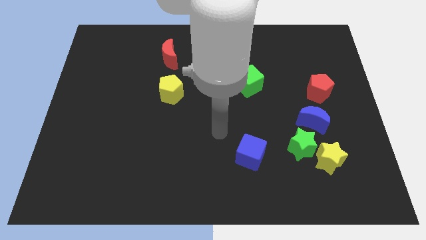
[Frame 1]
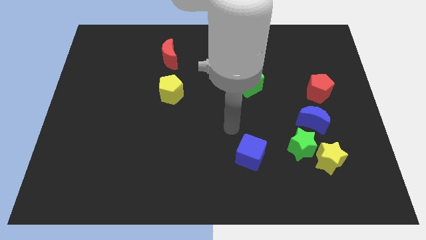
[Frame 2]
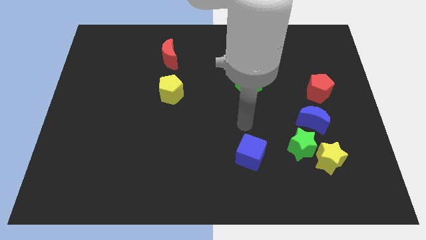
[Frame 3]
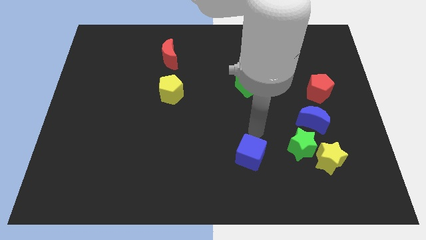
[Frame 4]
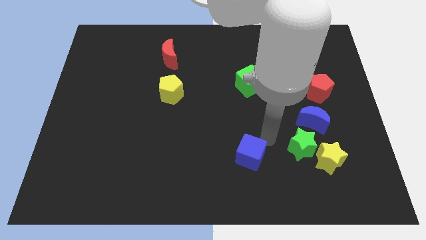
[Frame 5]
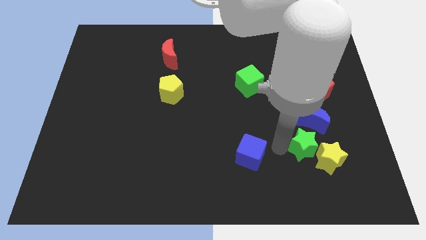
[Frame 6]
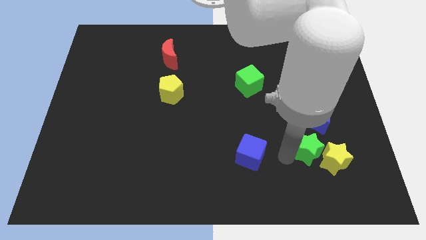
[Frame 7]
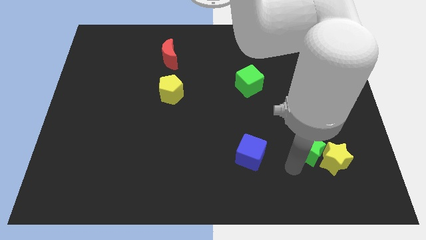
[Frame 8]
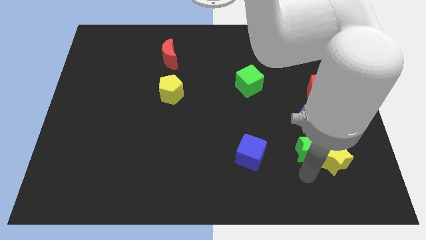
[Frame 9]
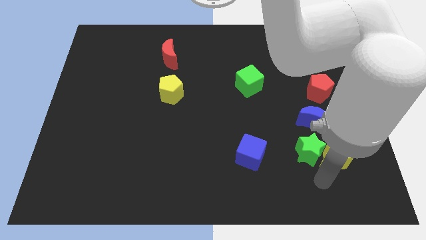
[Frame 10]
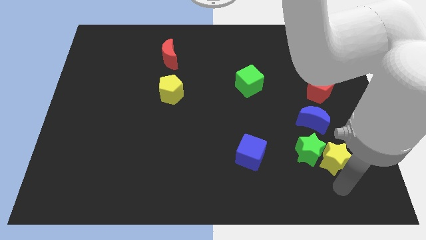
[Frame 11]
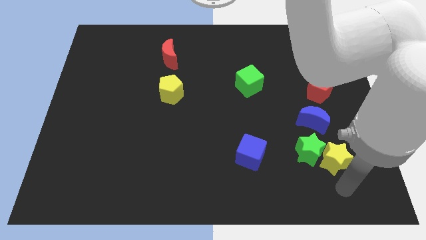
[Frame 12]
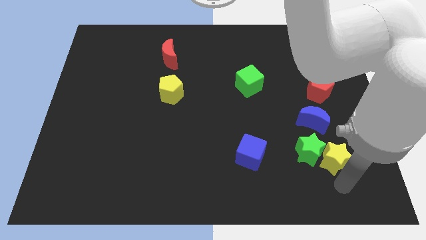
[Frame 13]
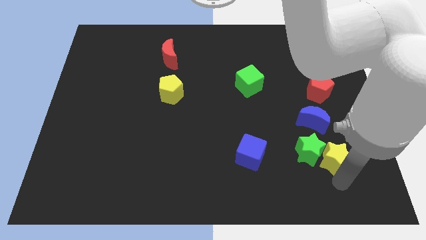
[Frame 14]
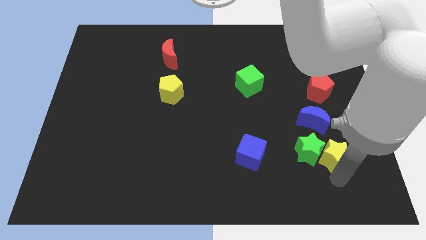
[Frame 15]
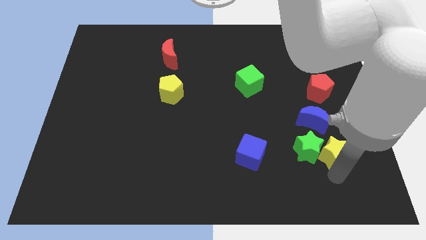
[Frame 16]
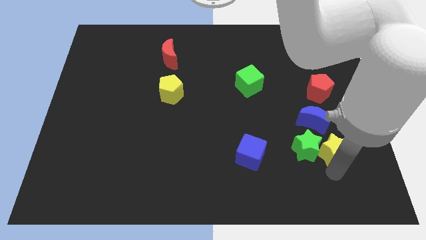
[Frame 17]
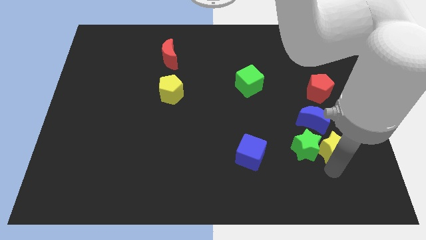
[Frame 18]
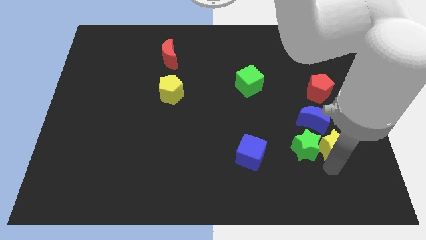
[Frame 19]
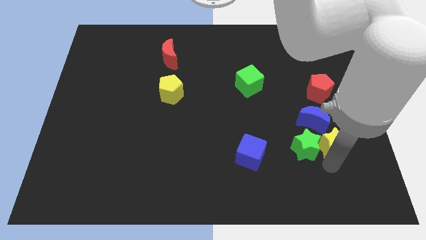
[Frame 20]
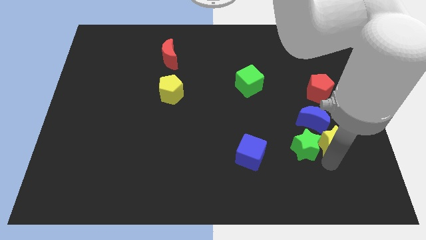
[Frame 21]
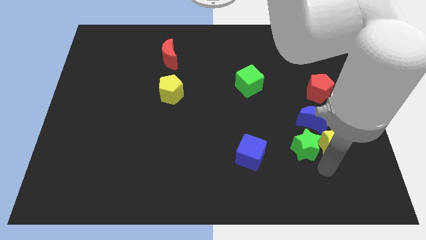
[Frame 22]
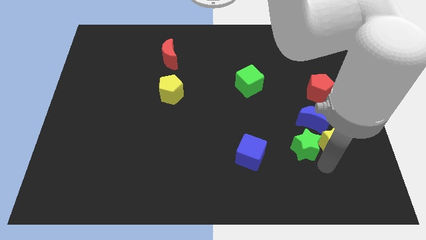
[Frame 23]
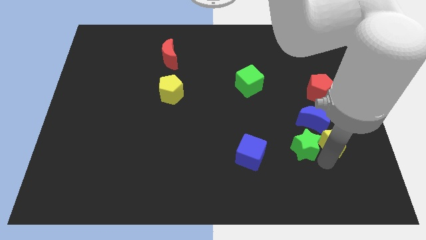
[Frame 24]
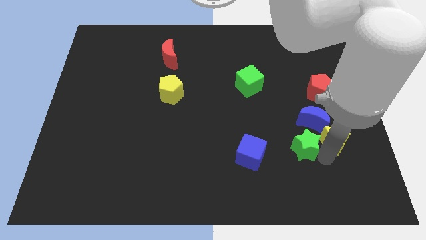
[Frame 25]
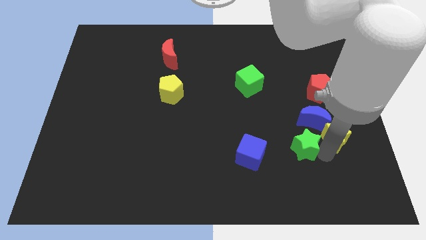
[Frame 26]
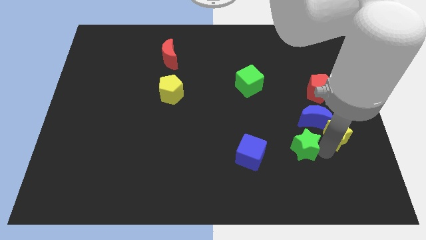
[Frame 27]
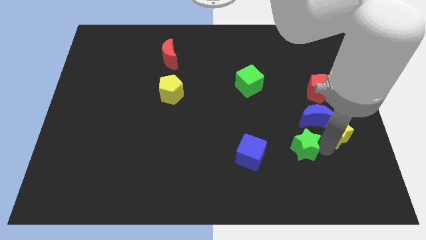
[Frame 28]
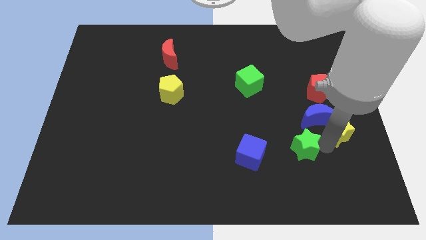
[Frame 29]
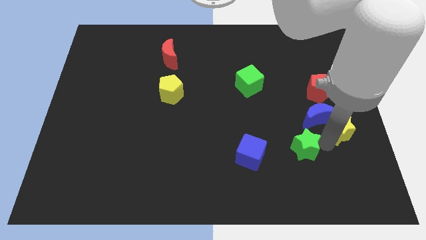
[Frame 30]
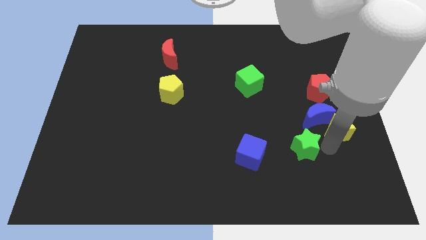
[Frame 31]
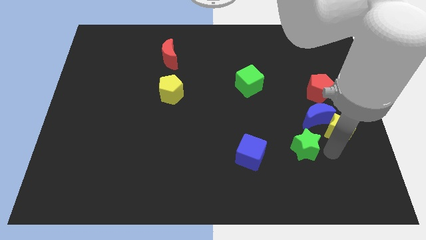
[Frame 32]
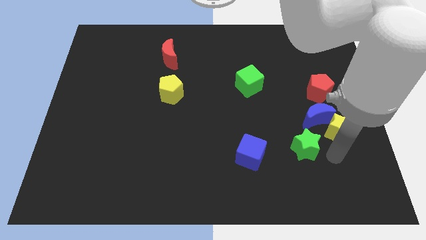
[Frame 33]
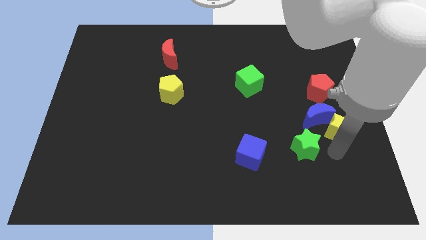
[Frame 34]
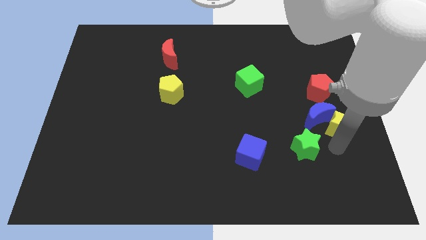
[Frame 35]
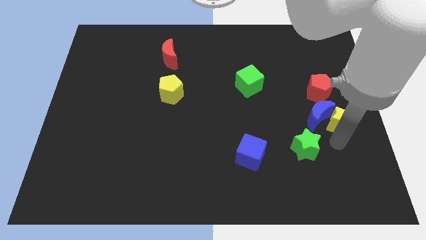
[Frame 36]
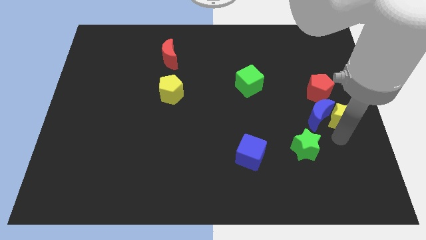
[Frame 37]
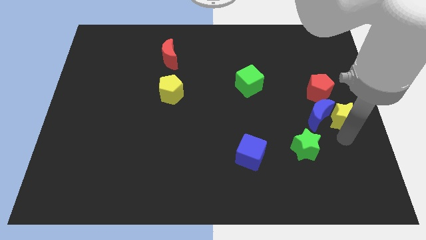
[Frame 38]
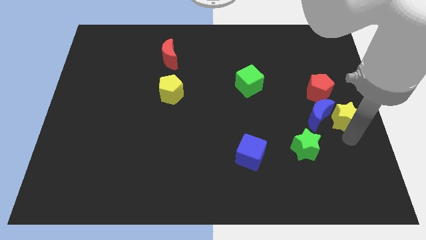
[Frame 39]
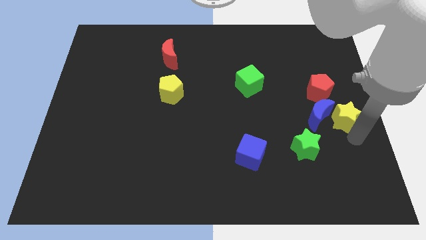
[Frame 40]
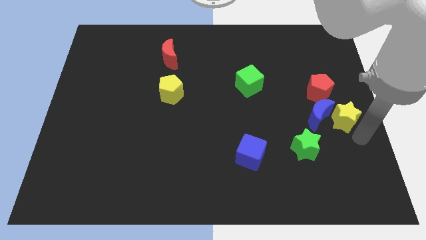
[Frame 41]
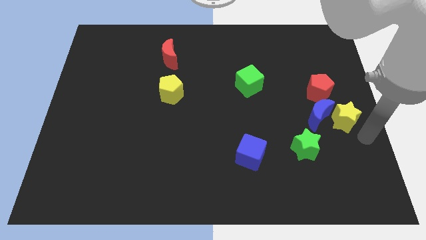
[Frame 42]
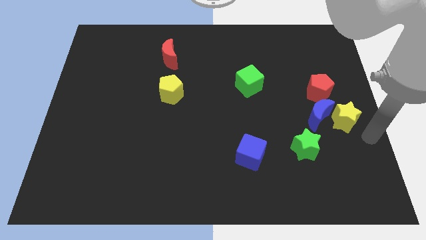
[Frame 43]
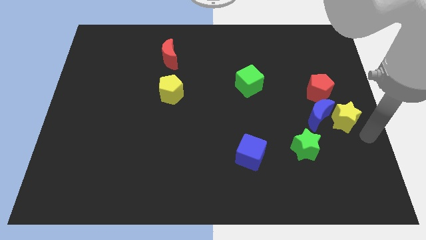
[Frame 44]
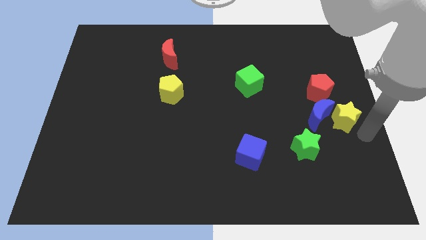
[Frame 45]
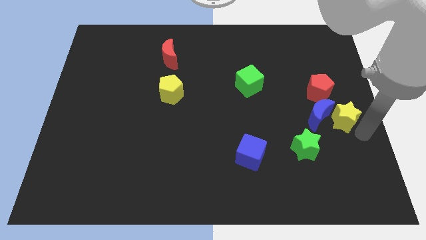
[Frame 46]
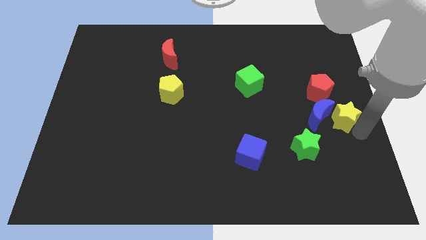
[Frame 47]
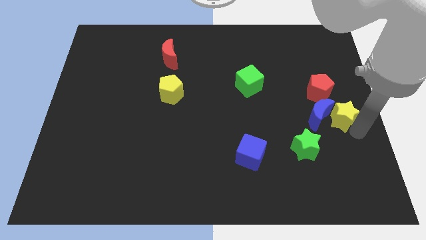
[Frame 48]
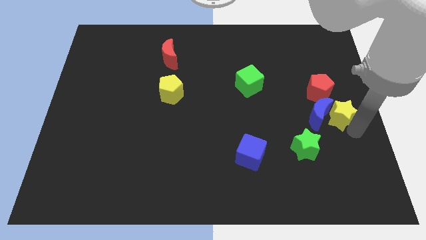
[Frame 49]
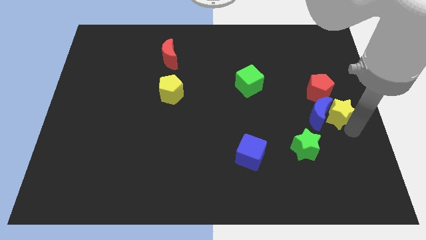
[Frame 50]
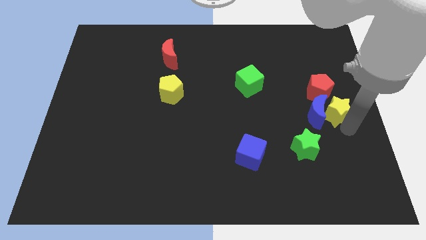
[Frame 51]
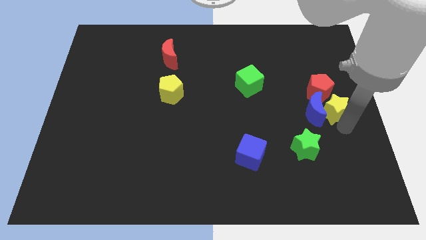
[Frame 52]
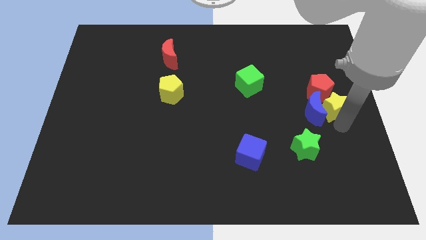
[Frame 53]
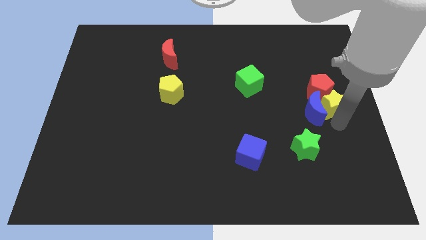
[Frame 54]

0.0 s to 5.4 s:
put the yellow star towards the red pentagon

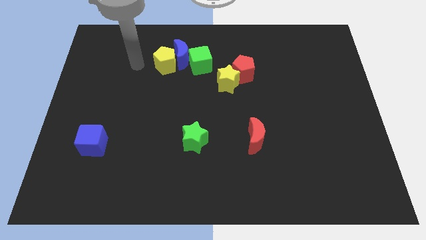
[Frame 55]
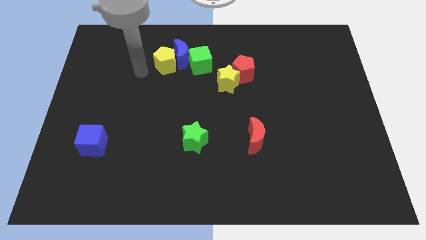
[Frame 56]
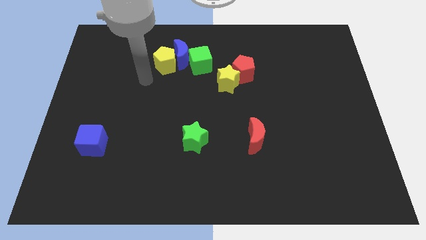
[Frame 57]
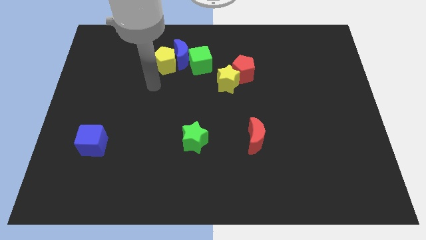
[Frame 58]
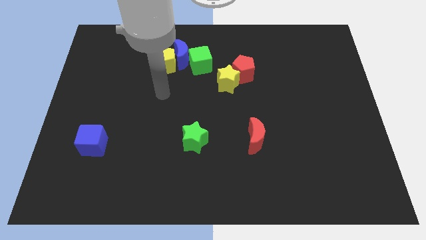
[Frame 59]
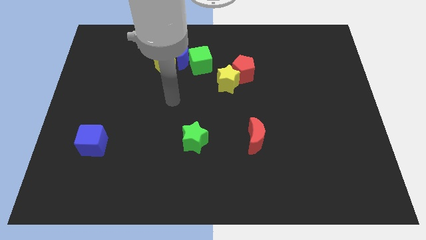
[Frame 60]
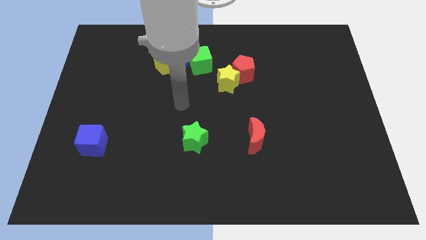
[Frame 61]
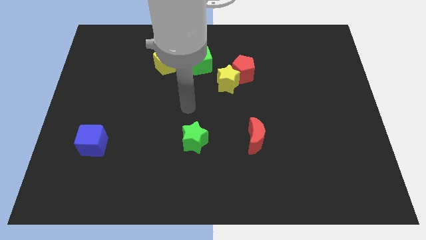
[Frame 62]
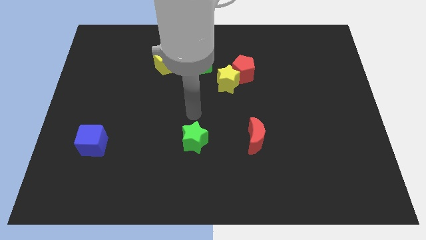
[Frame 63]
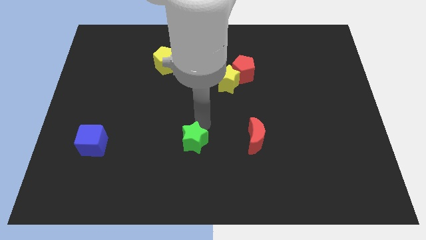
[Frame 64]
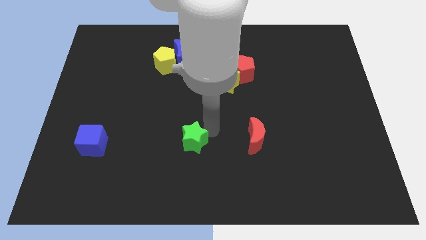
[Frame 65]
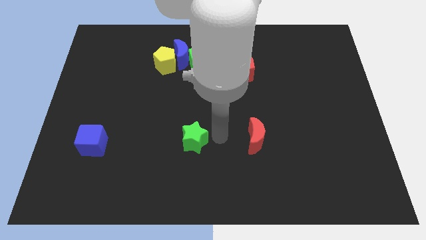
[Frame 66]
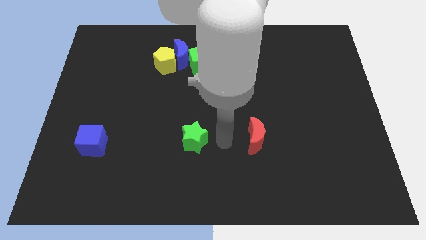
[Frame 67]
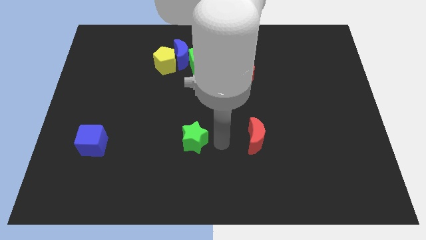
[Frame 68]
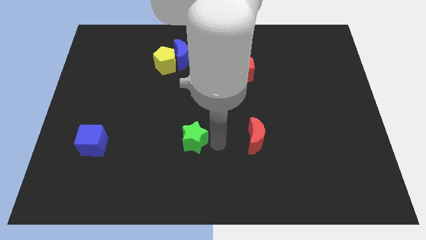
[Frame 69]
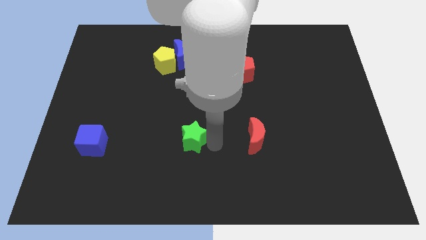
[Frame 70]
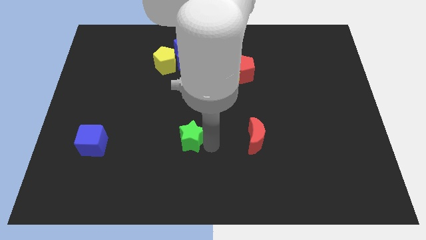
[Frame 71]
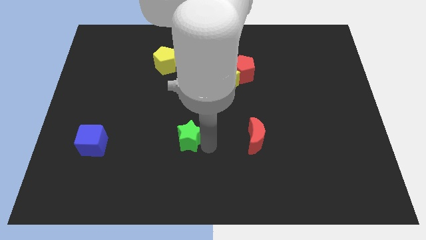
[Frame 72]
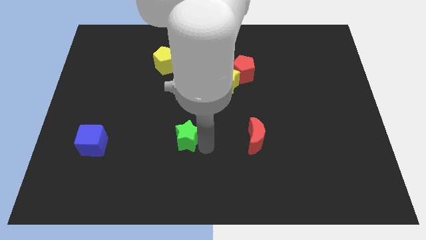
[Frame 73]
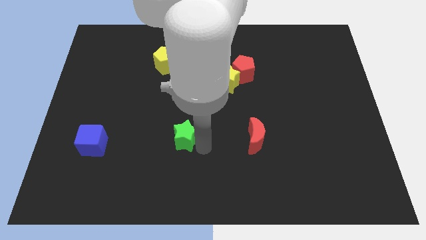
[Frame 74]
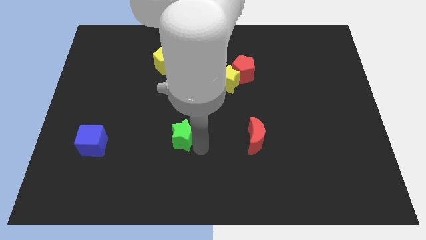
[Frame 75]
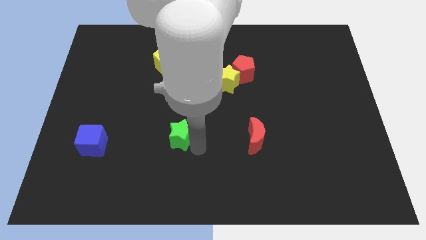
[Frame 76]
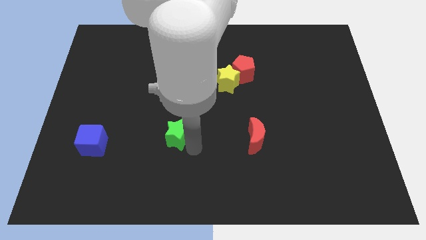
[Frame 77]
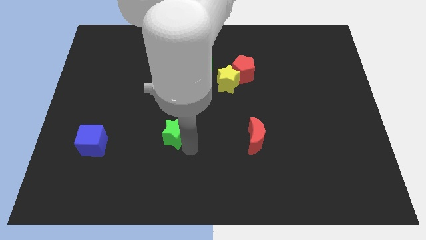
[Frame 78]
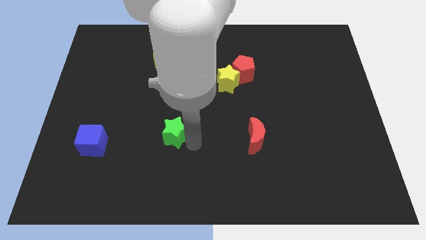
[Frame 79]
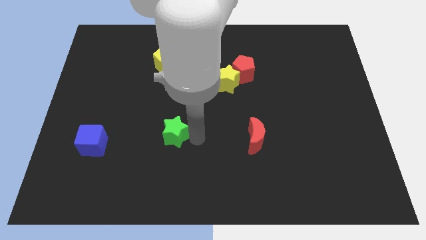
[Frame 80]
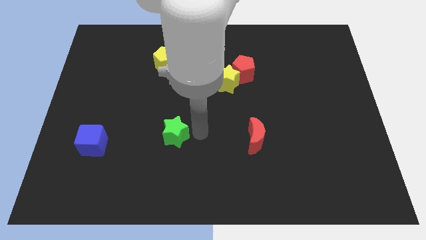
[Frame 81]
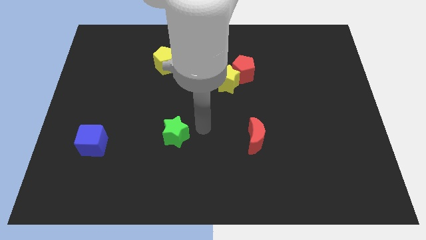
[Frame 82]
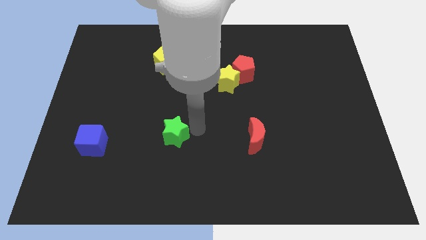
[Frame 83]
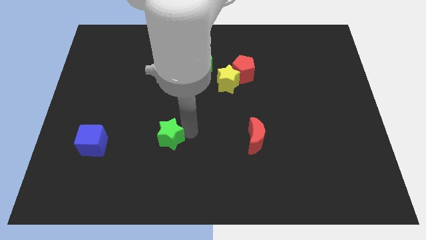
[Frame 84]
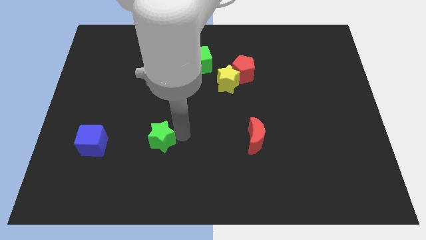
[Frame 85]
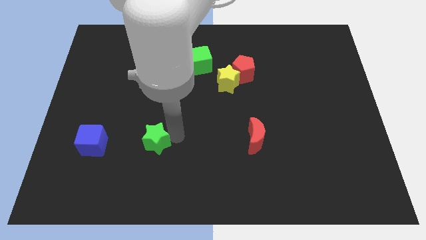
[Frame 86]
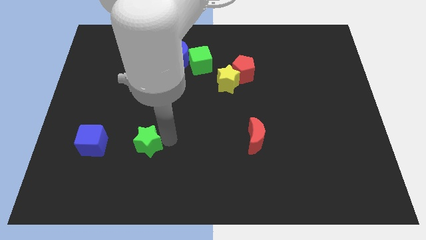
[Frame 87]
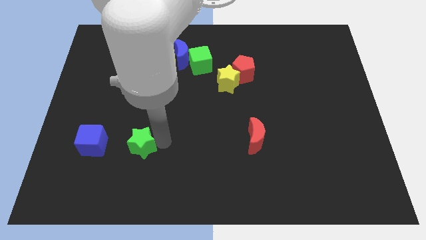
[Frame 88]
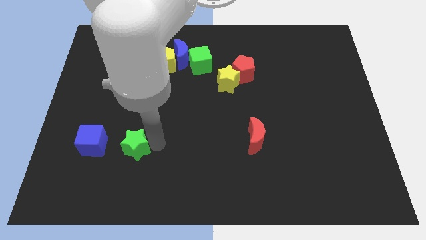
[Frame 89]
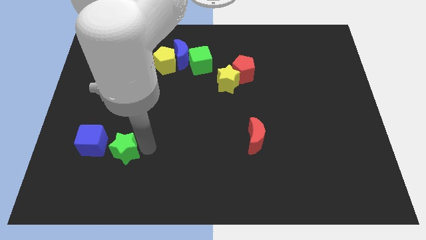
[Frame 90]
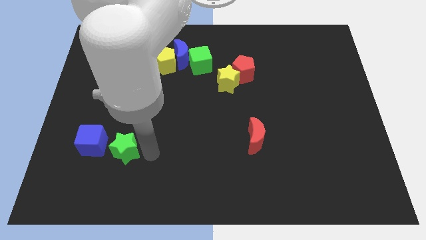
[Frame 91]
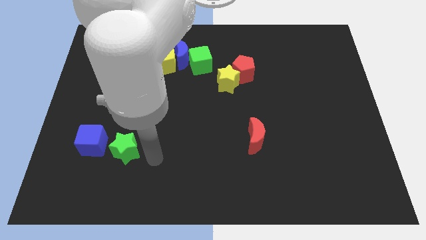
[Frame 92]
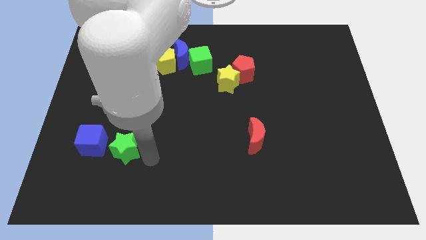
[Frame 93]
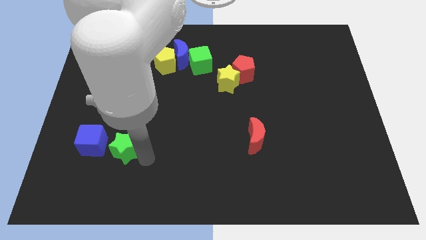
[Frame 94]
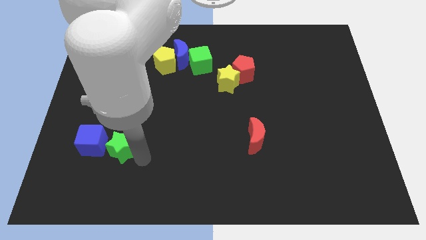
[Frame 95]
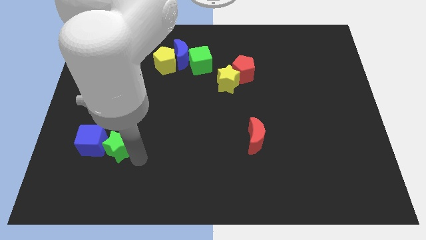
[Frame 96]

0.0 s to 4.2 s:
slide the green star next to the blue cube
